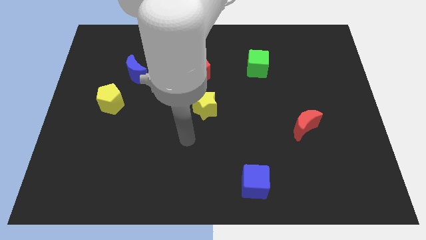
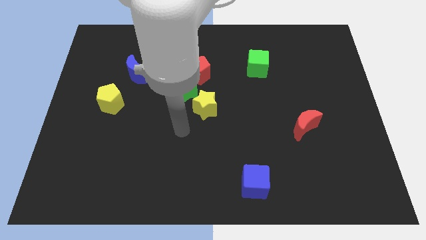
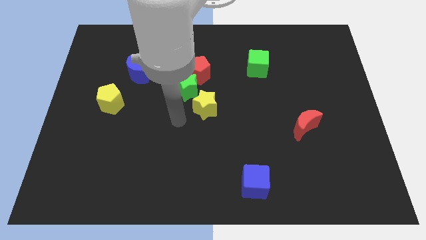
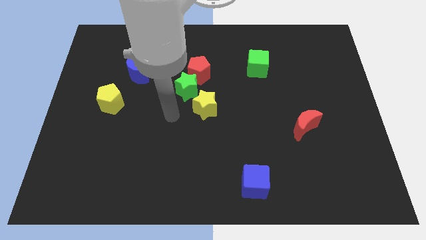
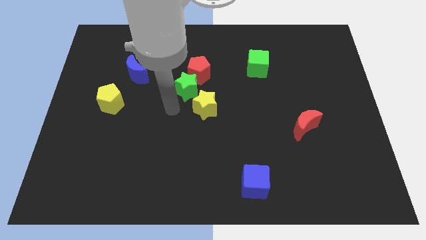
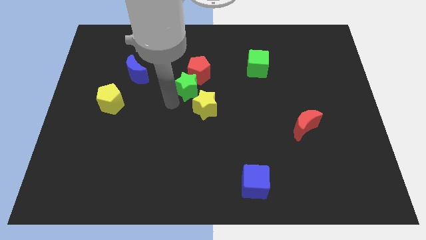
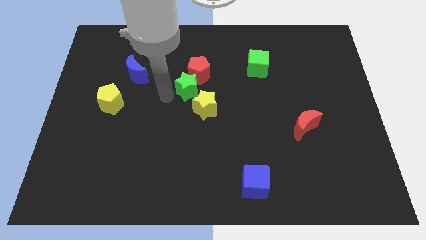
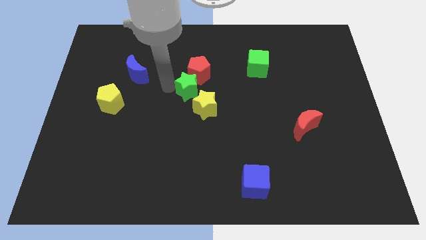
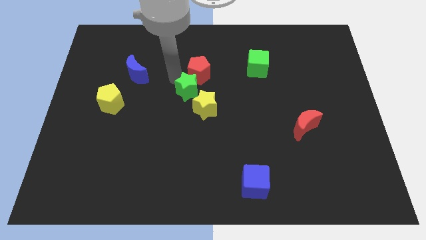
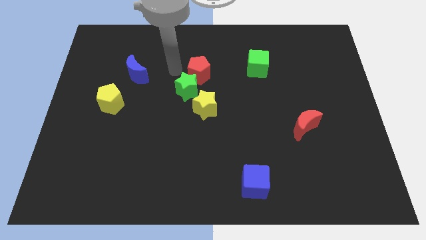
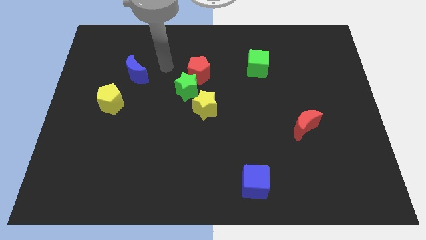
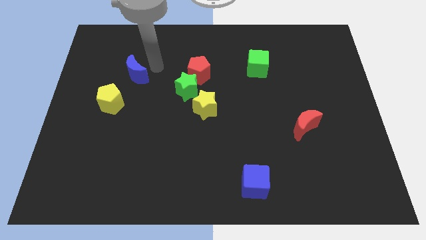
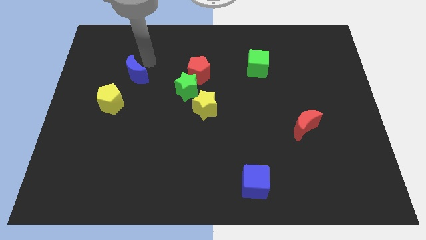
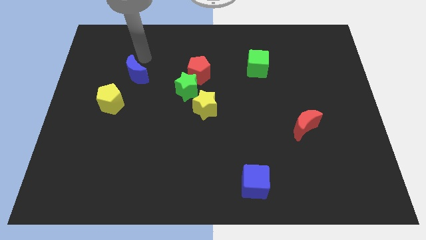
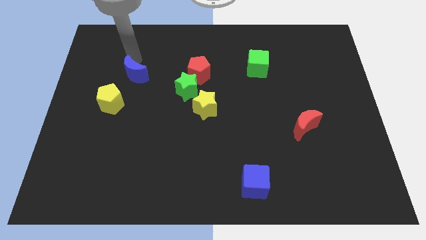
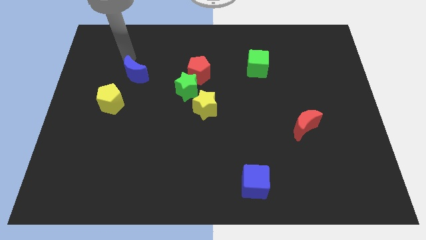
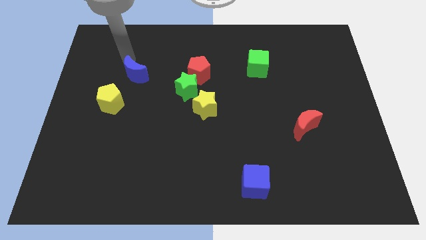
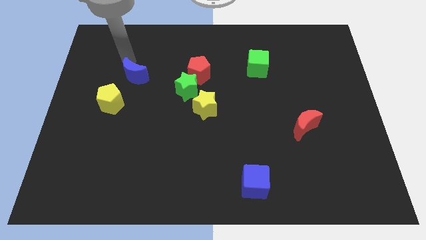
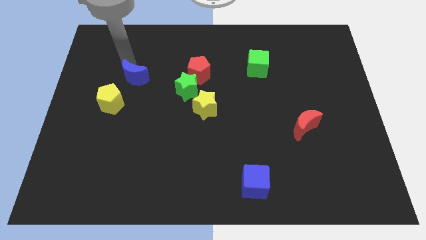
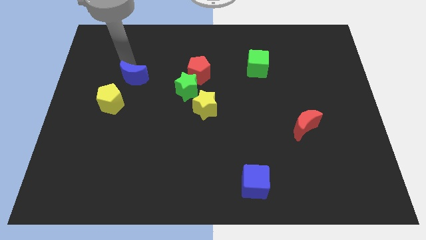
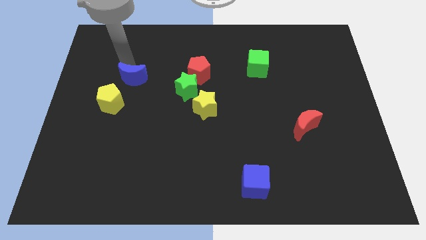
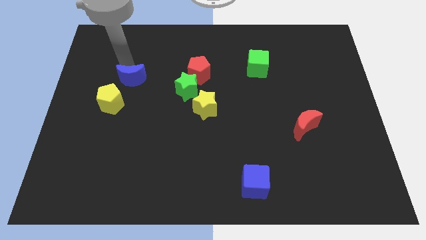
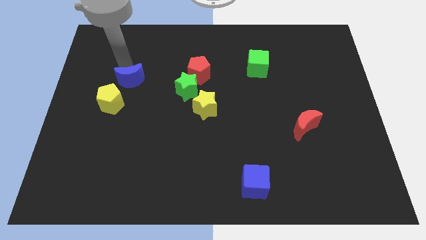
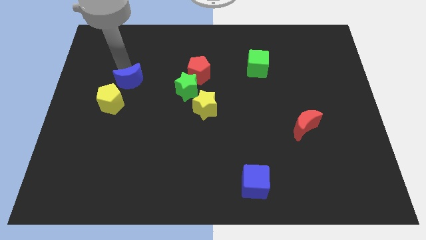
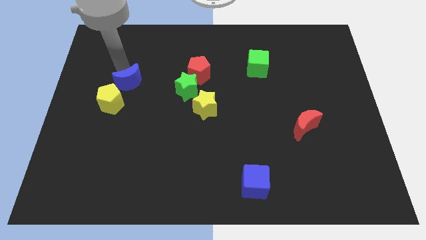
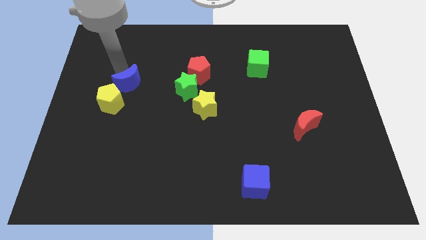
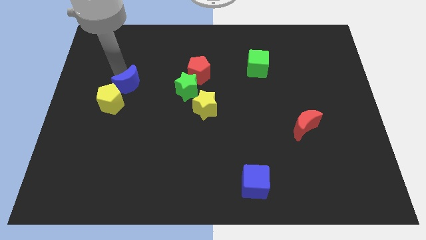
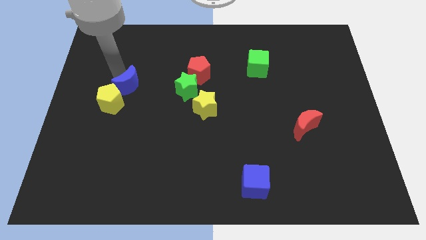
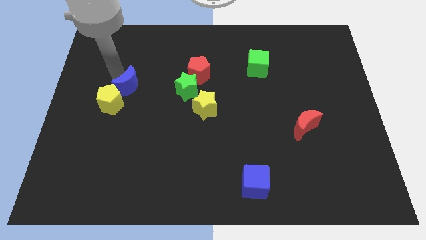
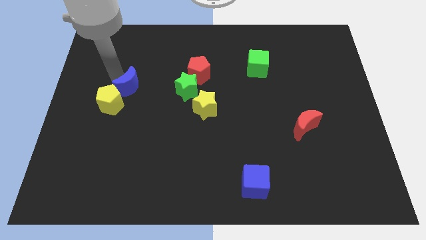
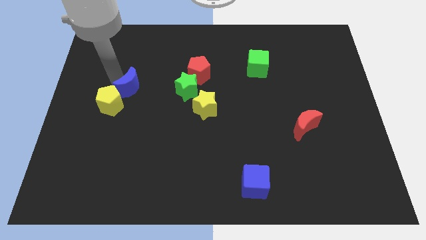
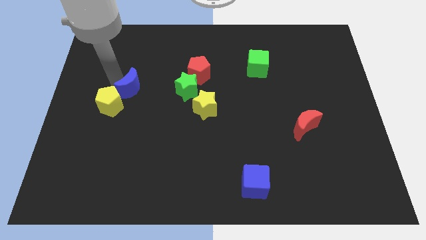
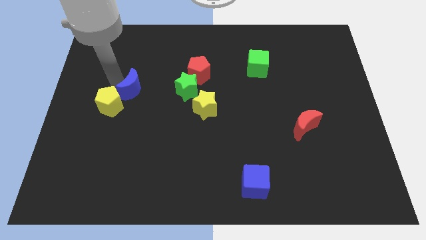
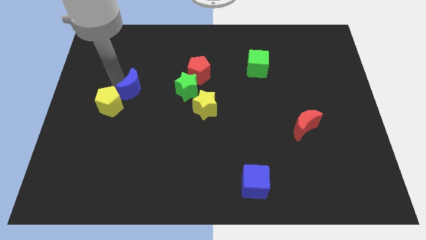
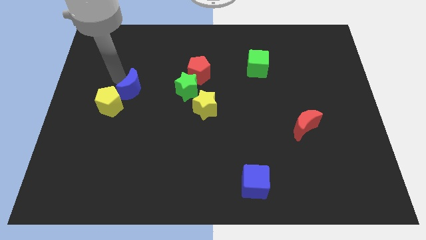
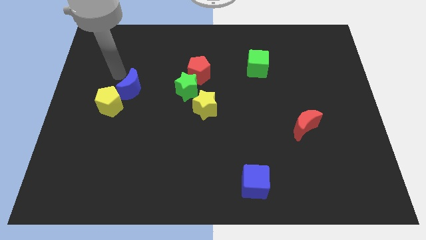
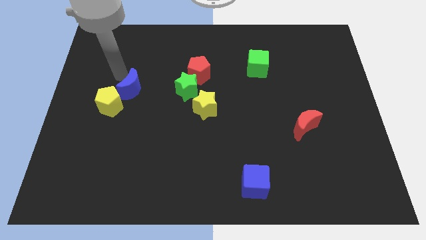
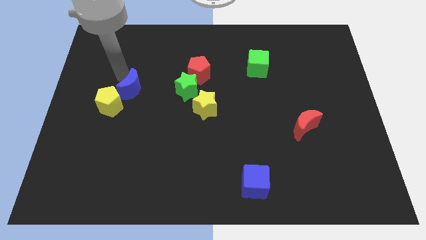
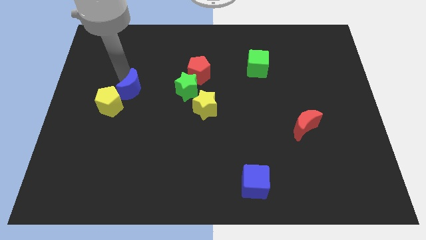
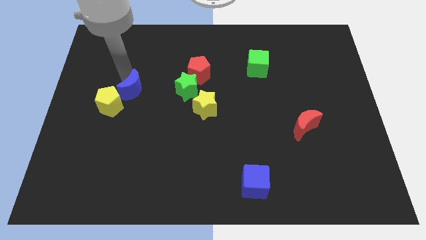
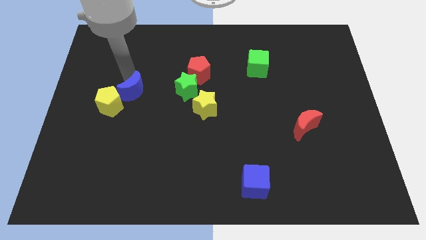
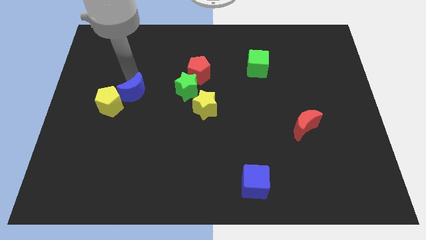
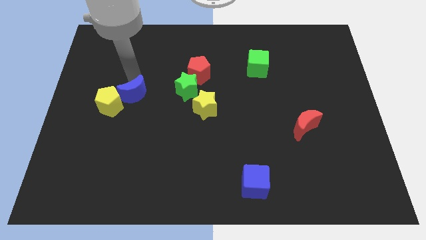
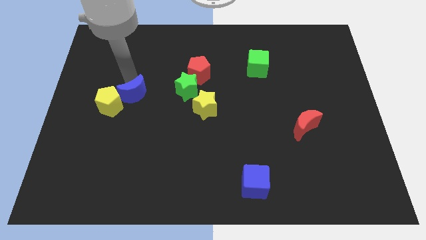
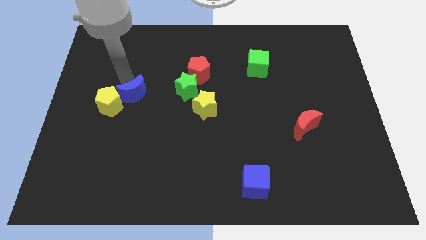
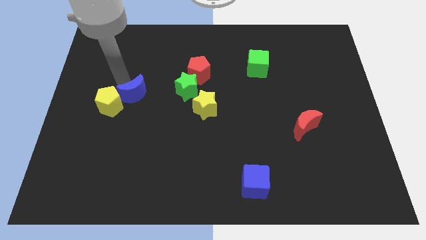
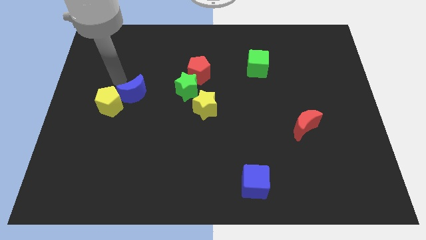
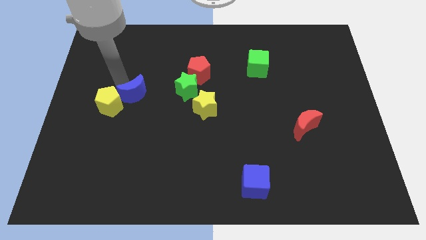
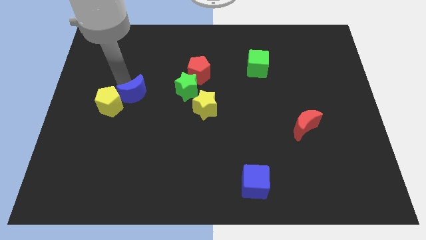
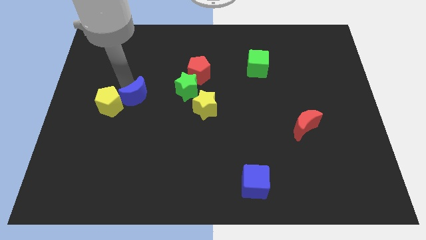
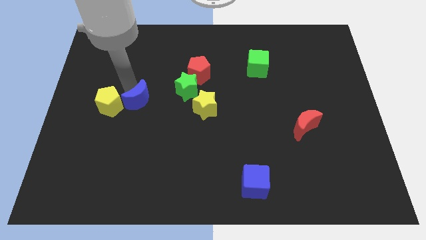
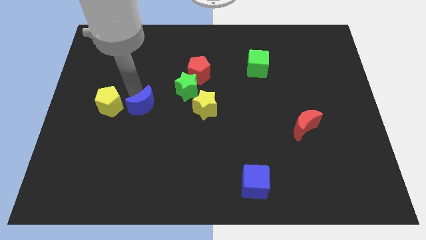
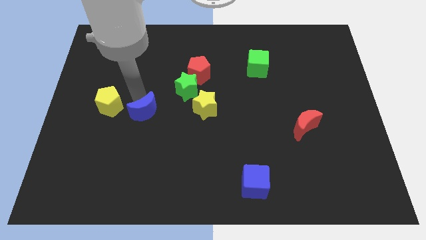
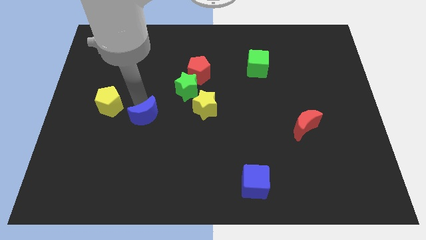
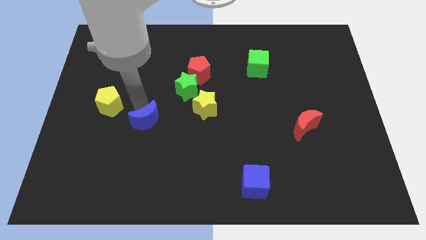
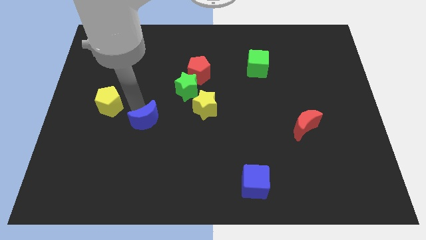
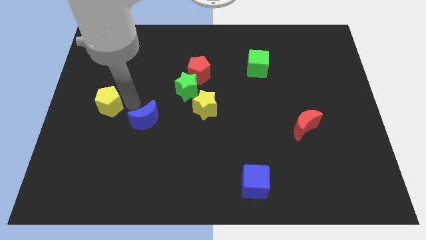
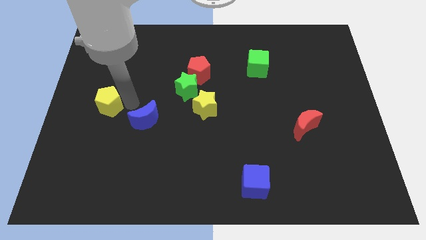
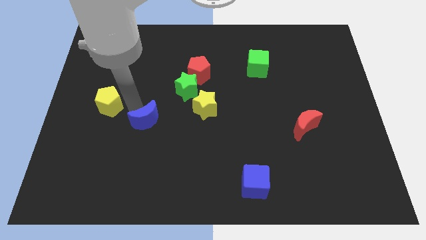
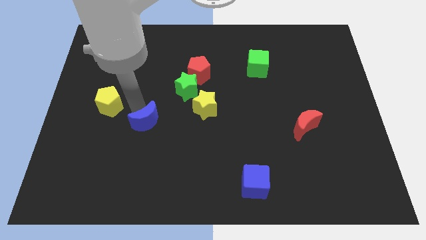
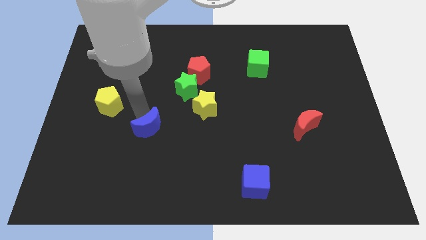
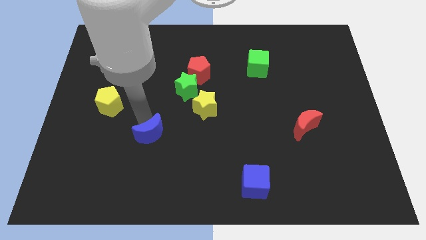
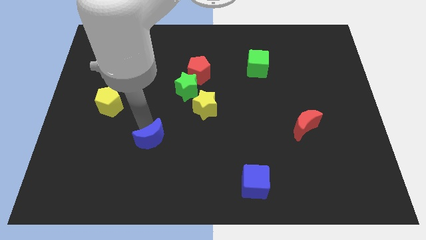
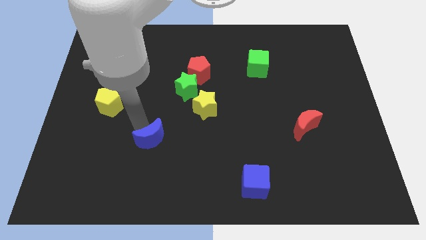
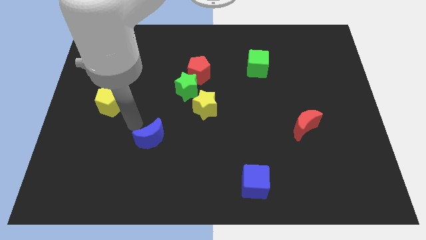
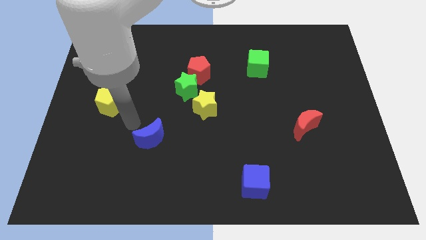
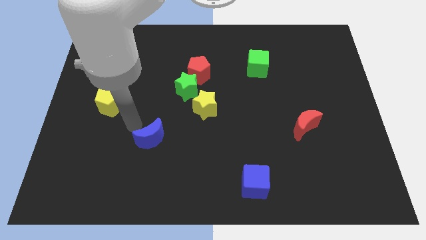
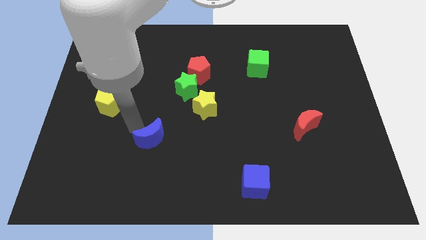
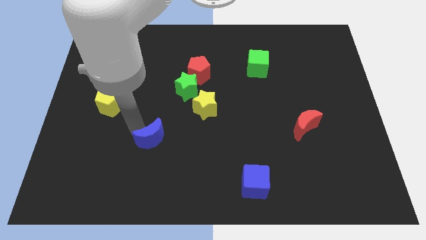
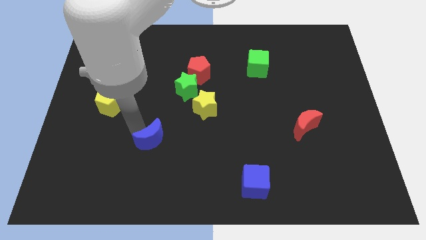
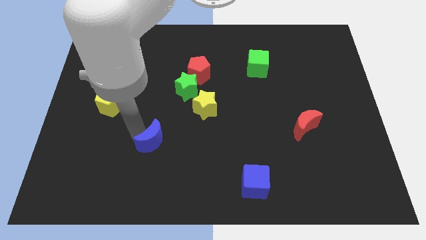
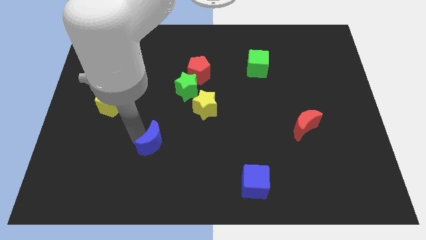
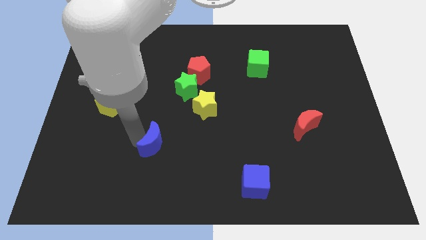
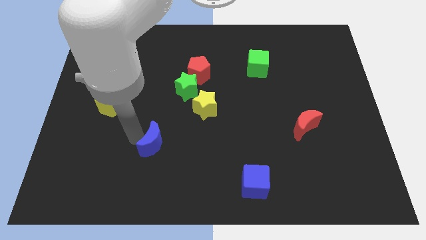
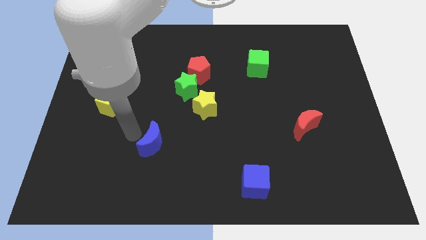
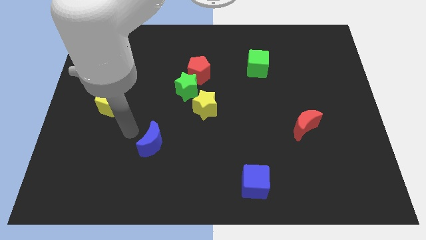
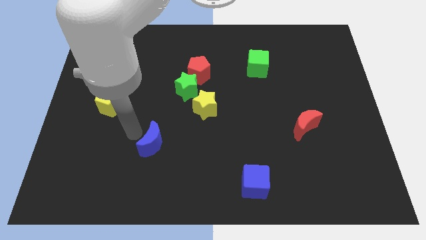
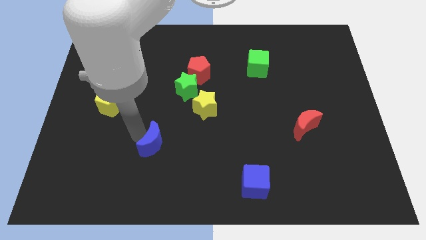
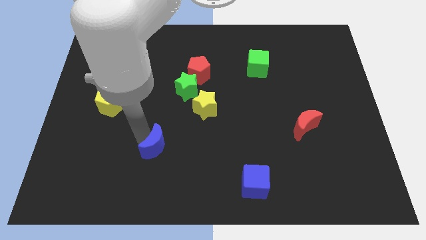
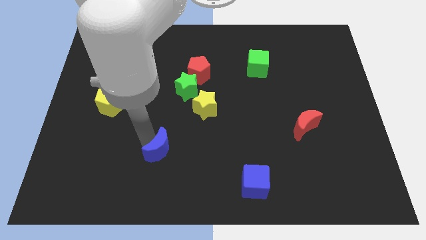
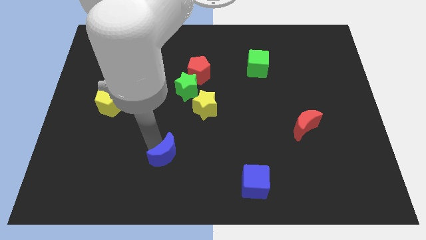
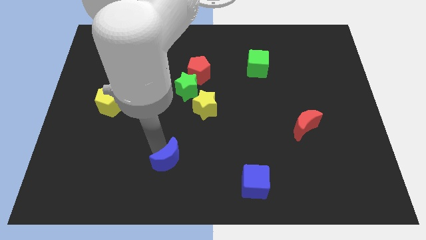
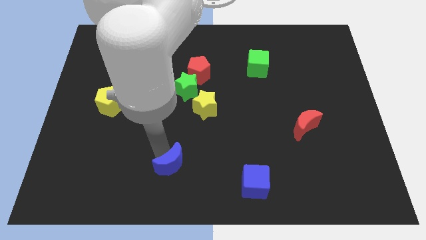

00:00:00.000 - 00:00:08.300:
push the blue moon to the bottom side
